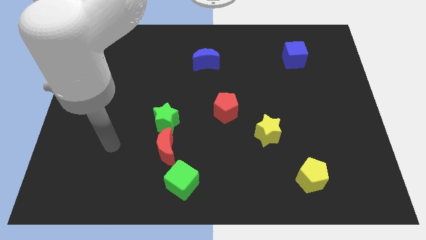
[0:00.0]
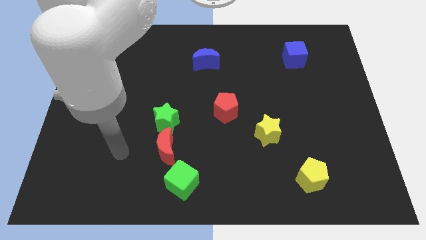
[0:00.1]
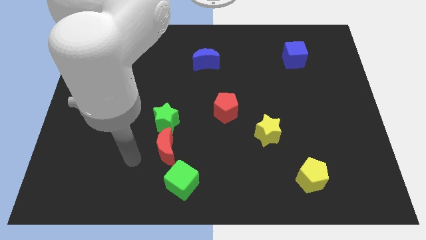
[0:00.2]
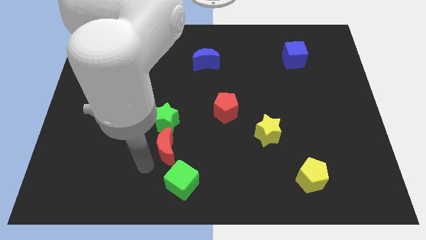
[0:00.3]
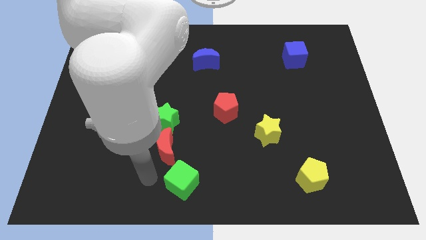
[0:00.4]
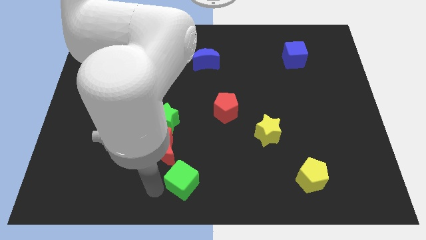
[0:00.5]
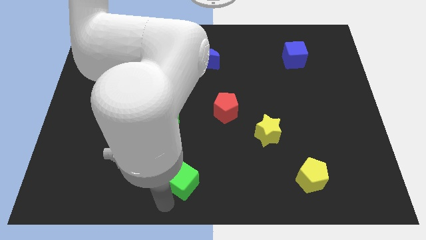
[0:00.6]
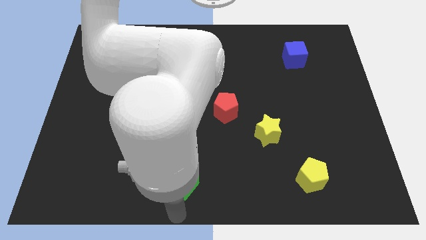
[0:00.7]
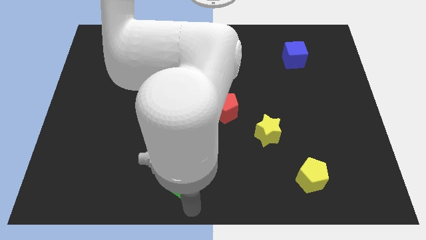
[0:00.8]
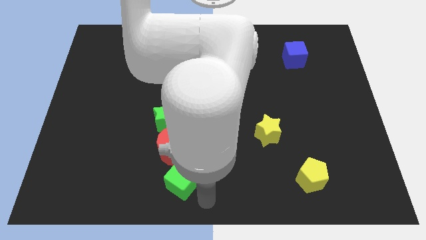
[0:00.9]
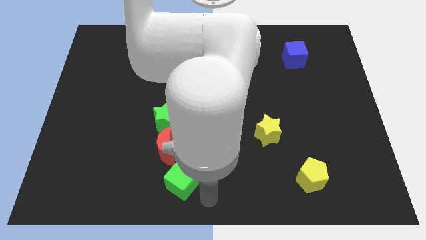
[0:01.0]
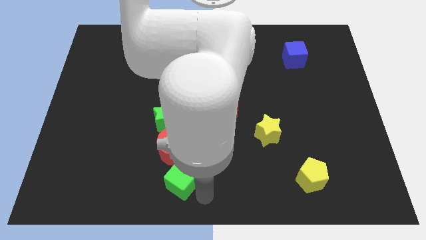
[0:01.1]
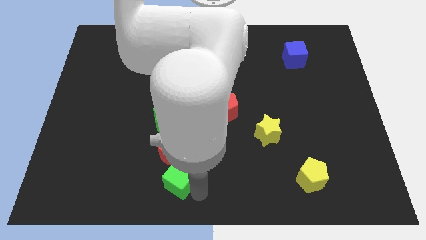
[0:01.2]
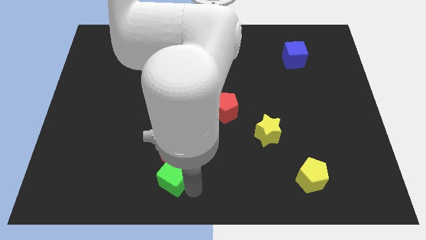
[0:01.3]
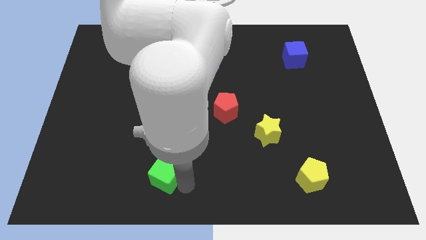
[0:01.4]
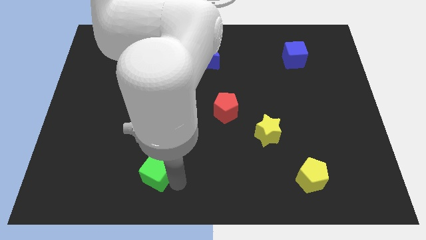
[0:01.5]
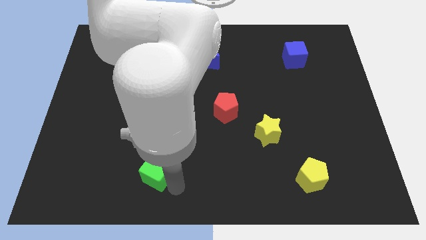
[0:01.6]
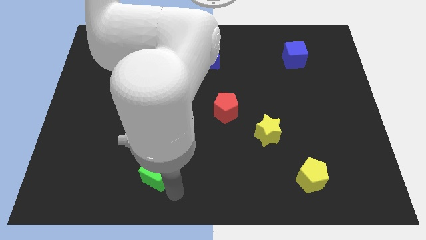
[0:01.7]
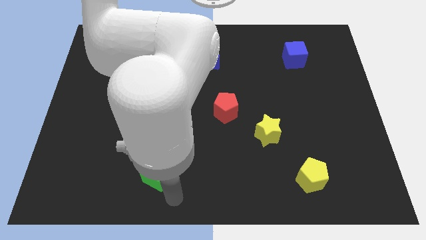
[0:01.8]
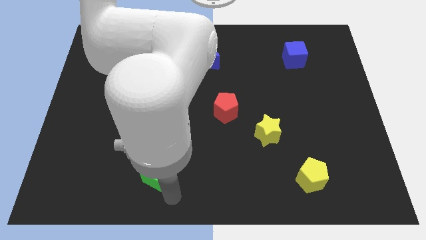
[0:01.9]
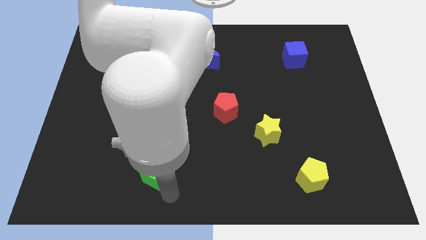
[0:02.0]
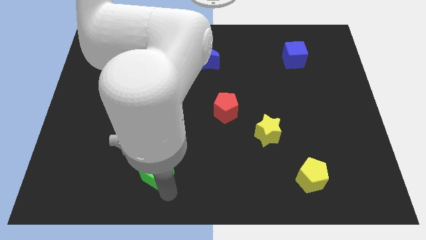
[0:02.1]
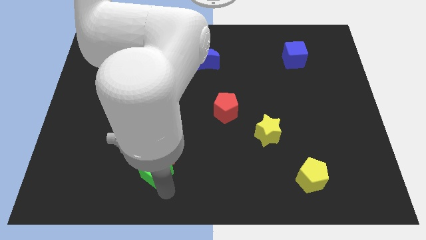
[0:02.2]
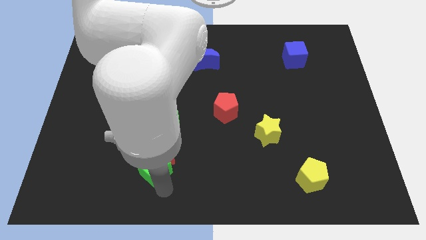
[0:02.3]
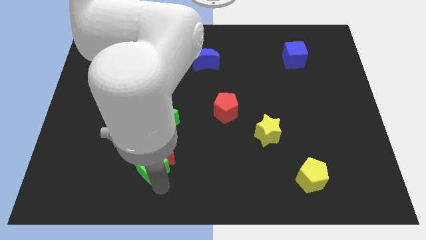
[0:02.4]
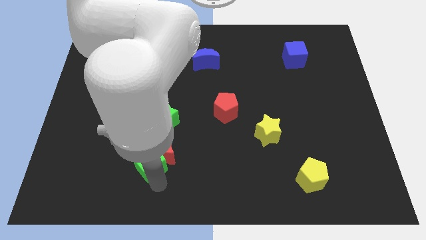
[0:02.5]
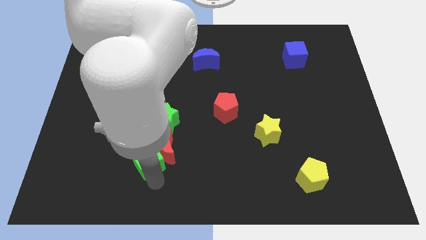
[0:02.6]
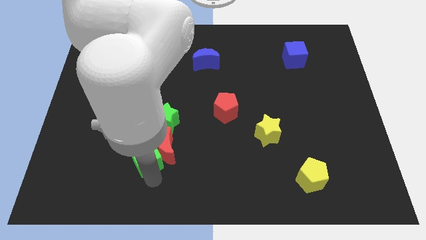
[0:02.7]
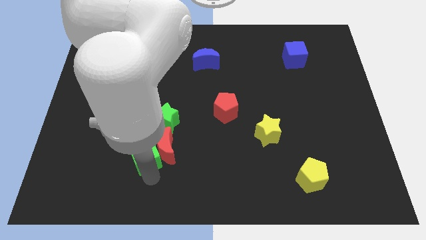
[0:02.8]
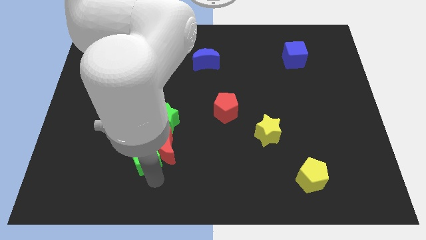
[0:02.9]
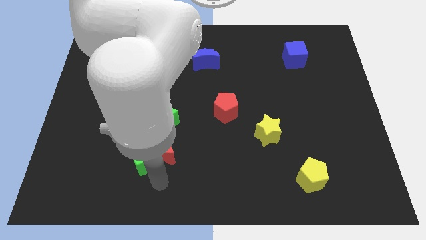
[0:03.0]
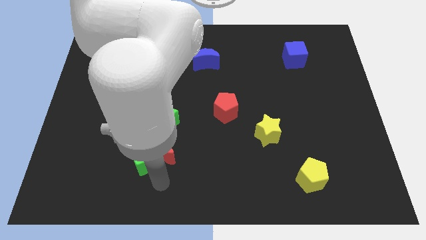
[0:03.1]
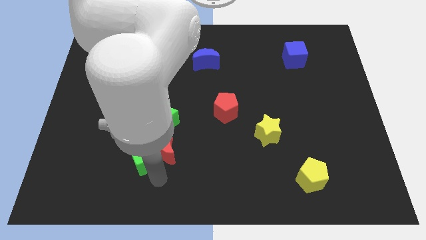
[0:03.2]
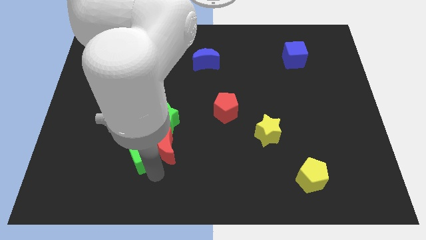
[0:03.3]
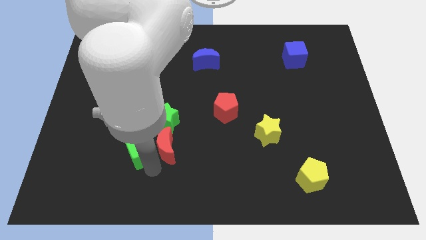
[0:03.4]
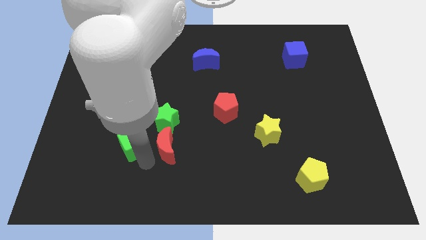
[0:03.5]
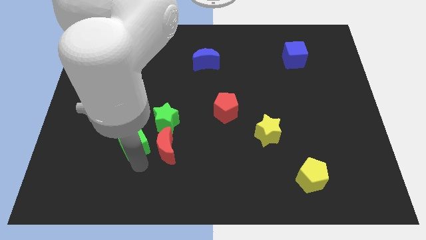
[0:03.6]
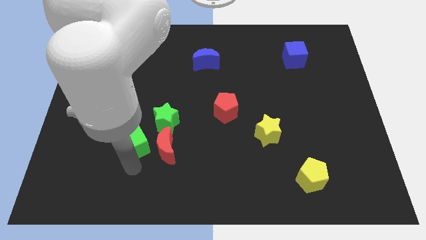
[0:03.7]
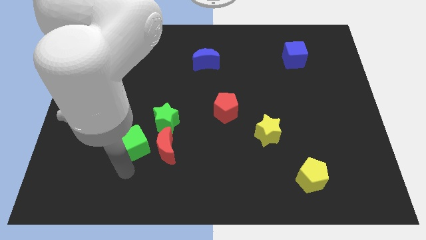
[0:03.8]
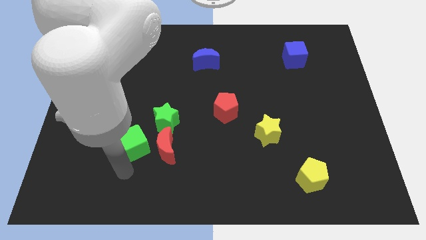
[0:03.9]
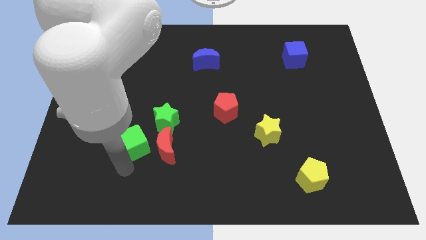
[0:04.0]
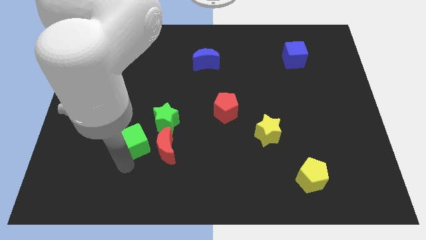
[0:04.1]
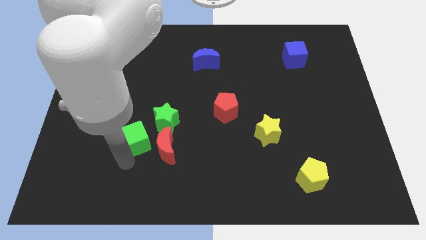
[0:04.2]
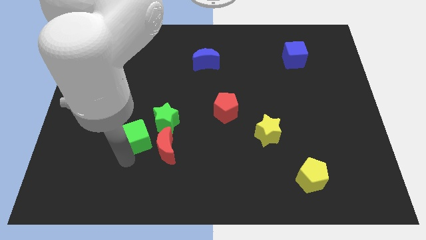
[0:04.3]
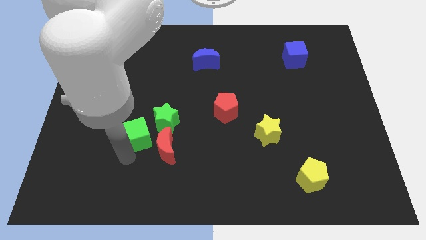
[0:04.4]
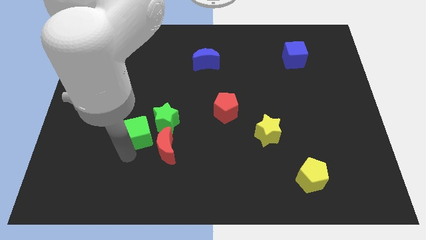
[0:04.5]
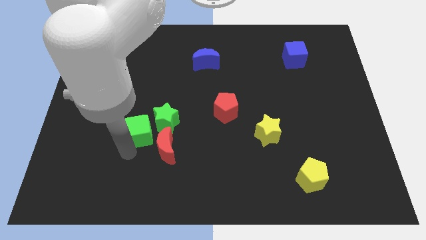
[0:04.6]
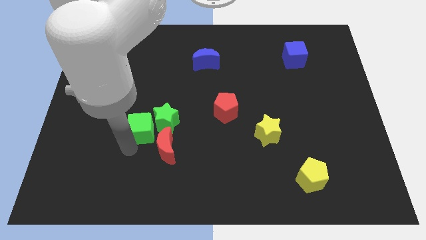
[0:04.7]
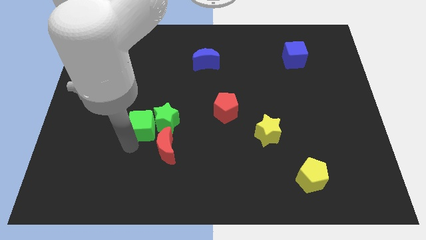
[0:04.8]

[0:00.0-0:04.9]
slide the green cube diagonally up and to the left of the green star

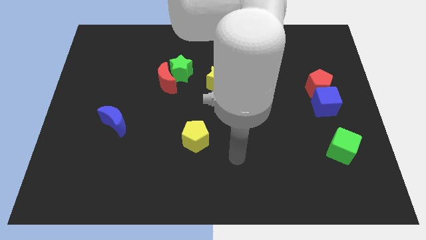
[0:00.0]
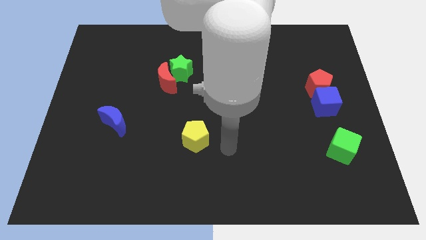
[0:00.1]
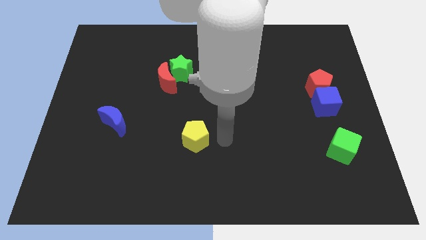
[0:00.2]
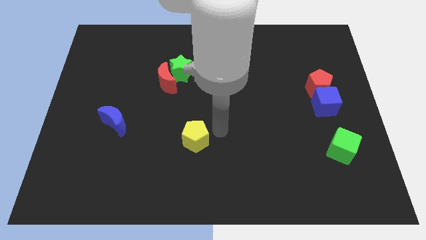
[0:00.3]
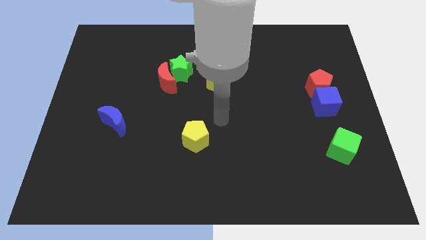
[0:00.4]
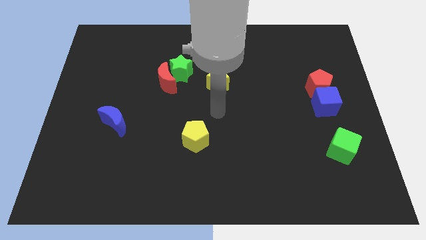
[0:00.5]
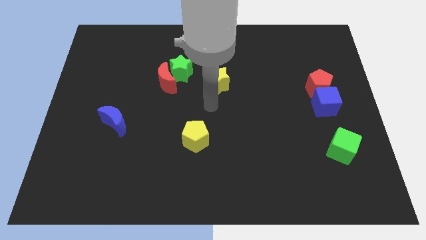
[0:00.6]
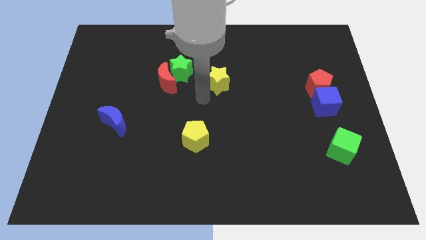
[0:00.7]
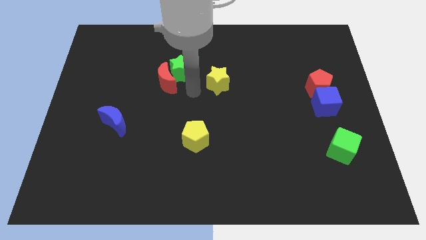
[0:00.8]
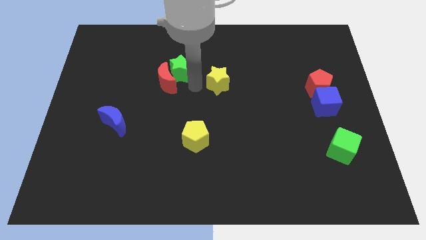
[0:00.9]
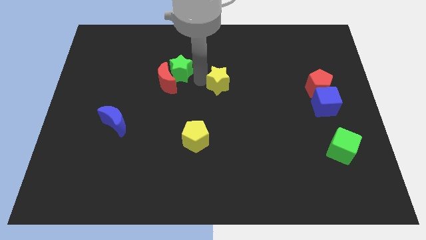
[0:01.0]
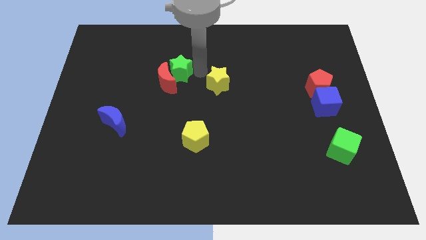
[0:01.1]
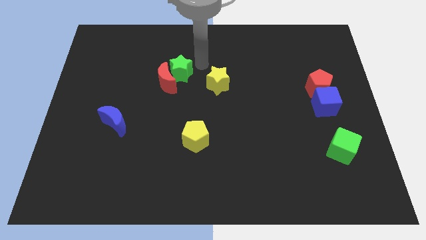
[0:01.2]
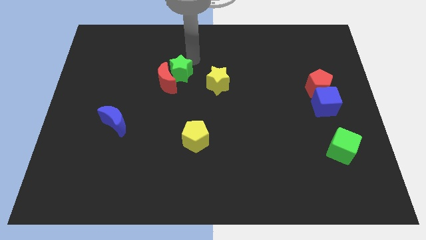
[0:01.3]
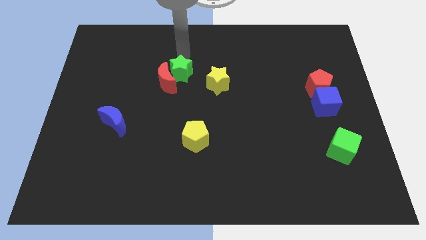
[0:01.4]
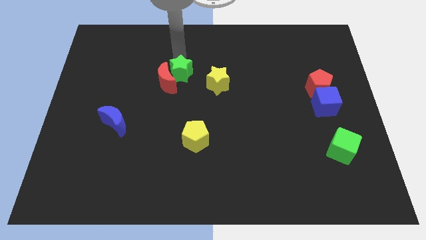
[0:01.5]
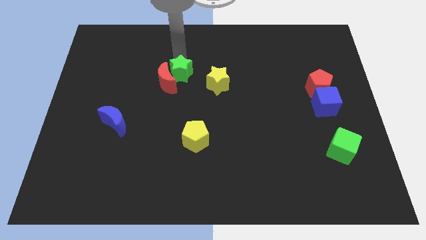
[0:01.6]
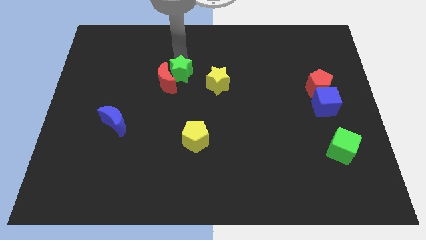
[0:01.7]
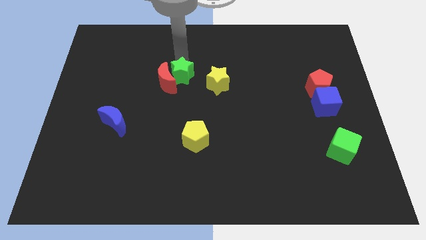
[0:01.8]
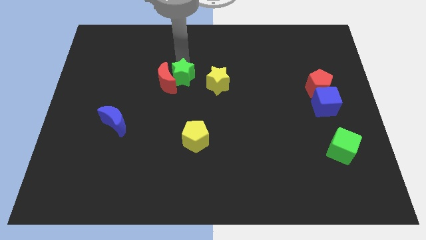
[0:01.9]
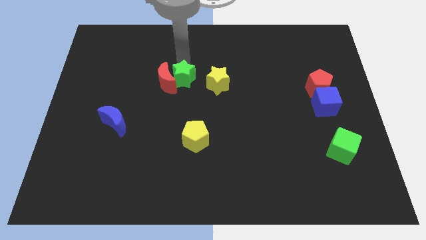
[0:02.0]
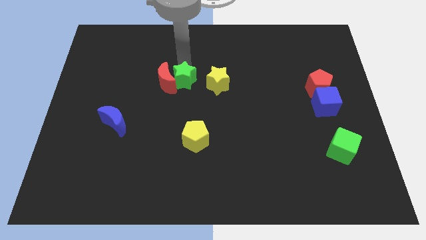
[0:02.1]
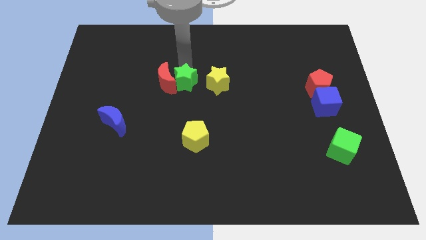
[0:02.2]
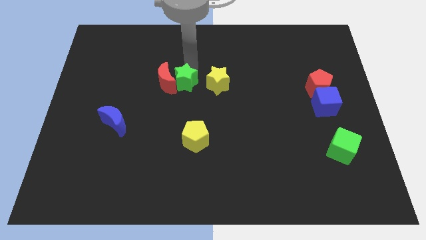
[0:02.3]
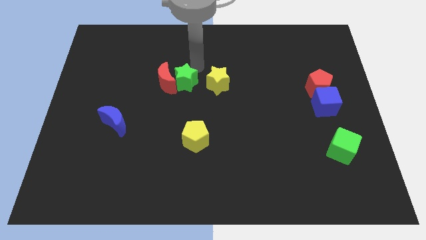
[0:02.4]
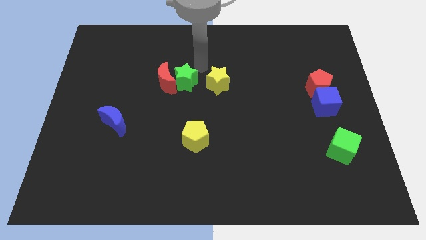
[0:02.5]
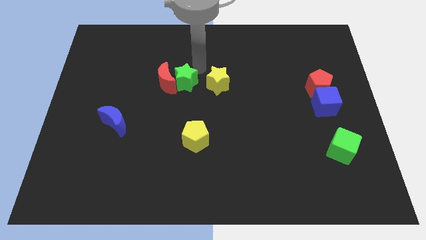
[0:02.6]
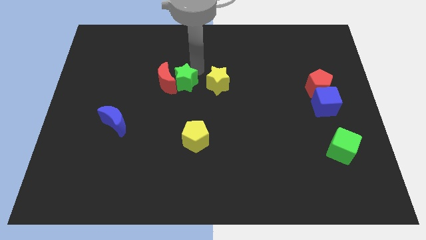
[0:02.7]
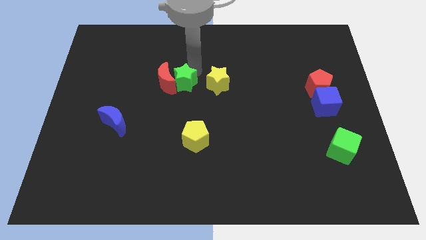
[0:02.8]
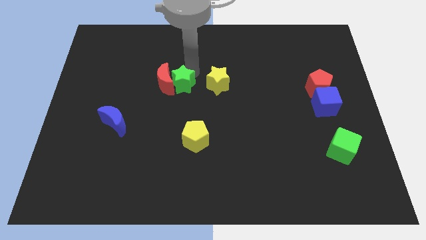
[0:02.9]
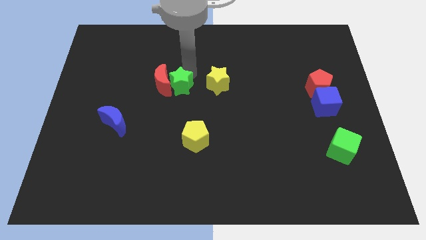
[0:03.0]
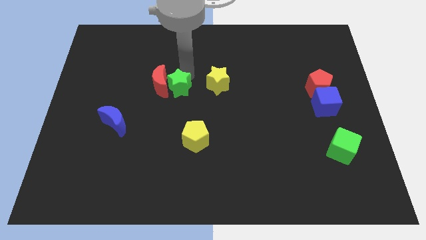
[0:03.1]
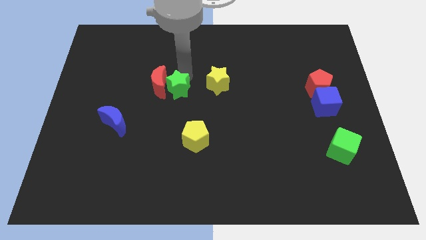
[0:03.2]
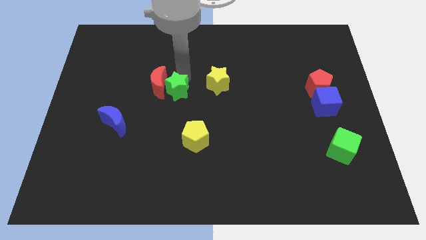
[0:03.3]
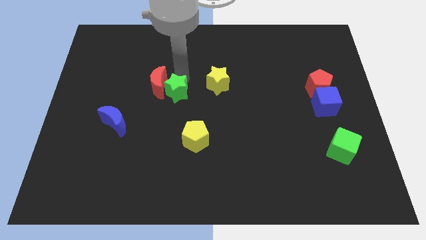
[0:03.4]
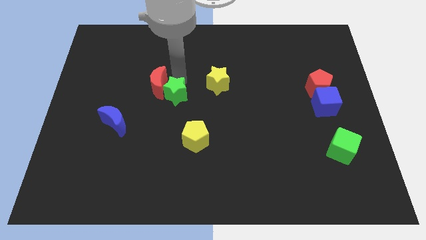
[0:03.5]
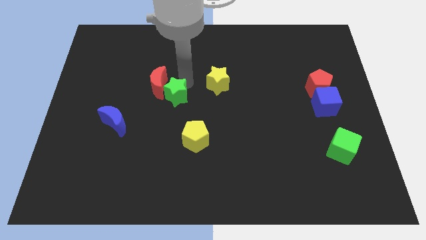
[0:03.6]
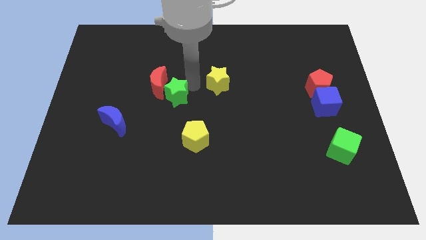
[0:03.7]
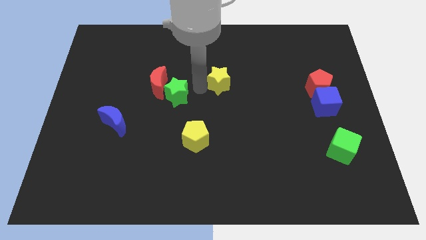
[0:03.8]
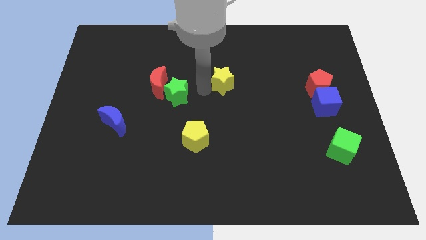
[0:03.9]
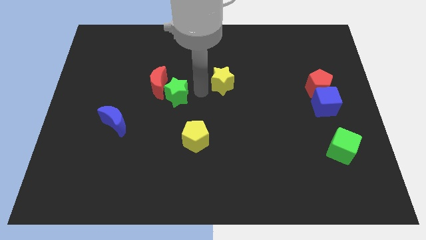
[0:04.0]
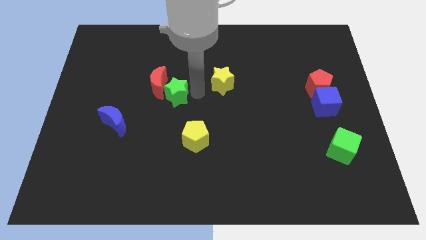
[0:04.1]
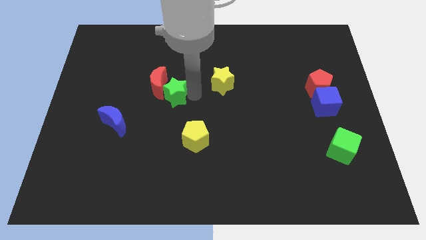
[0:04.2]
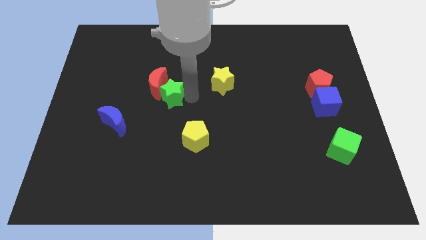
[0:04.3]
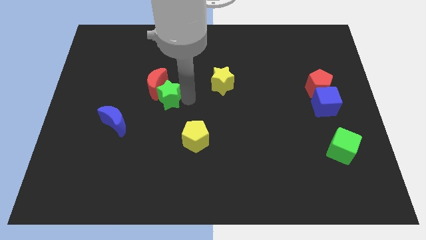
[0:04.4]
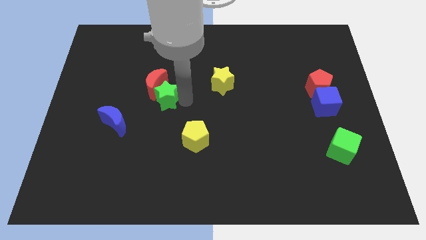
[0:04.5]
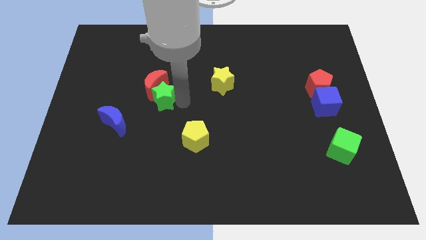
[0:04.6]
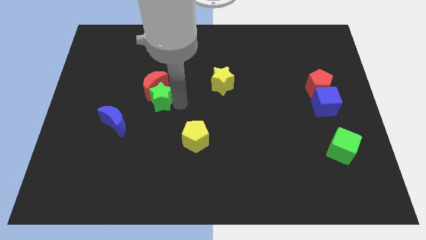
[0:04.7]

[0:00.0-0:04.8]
push the green star to the top right side of the blue moon
